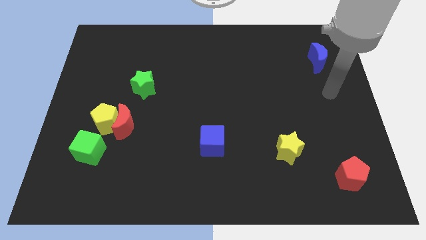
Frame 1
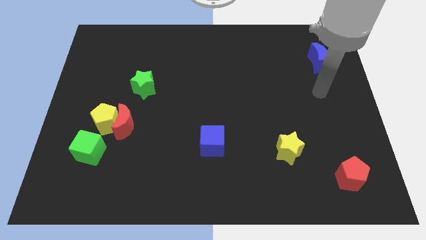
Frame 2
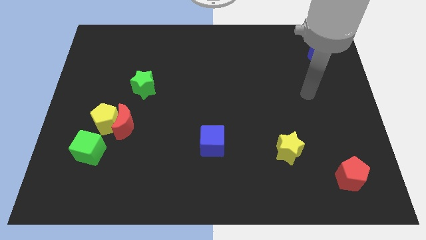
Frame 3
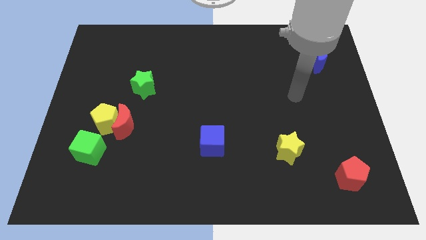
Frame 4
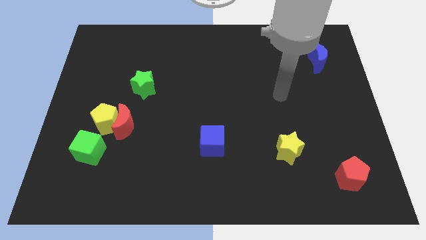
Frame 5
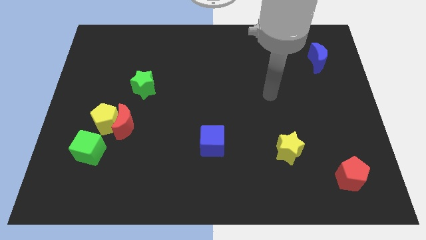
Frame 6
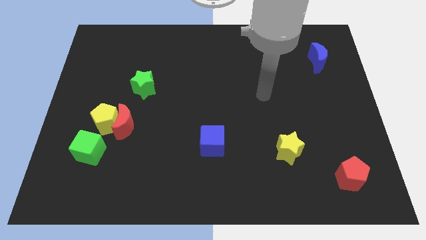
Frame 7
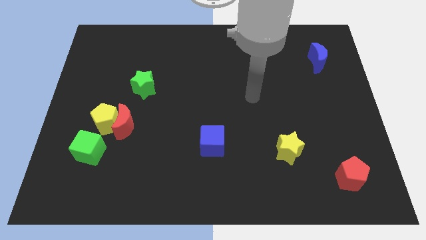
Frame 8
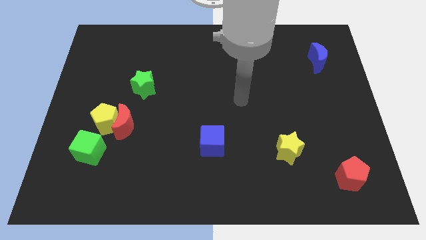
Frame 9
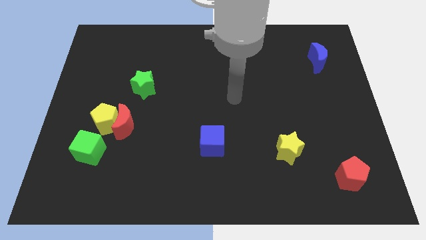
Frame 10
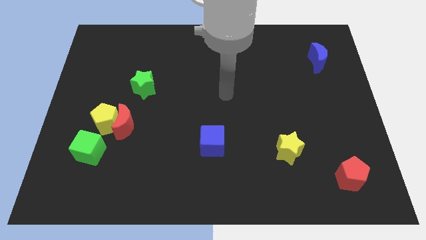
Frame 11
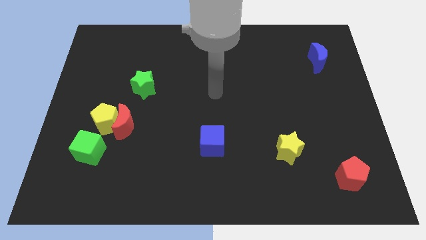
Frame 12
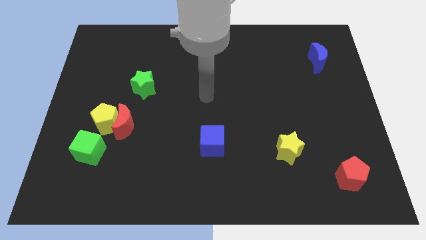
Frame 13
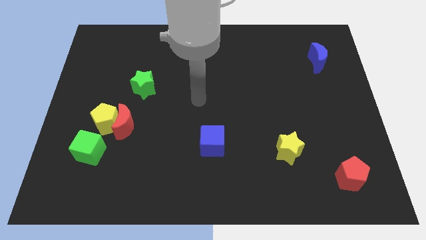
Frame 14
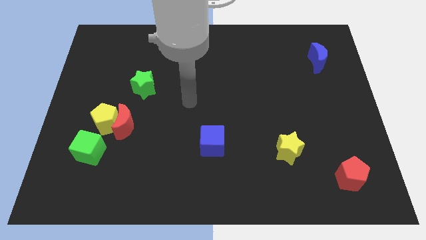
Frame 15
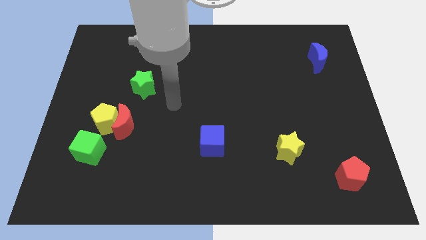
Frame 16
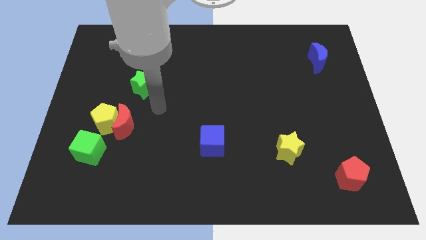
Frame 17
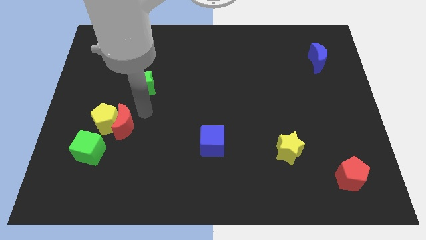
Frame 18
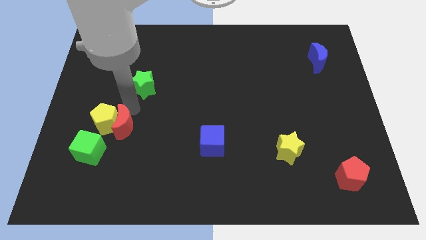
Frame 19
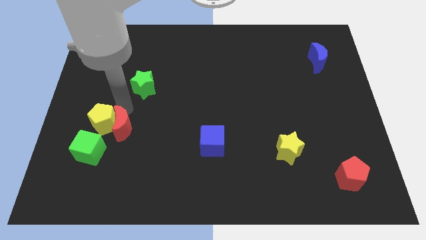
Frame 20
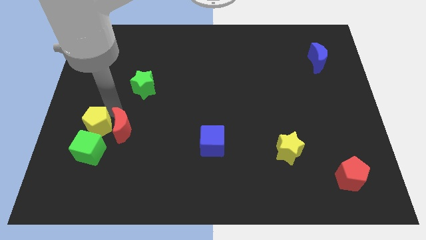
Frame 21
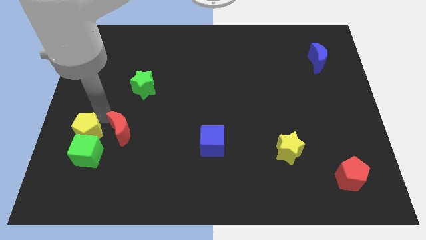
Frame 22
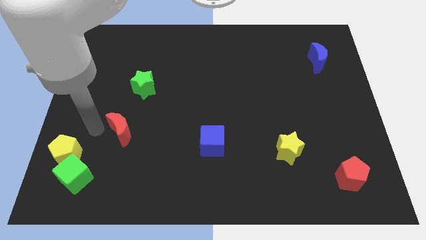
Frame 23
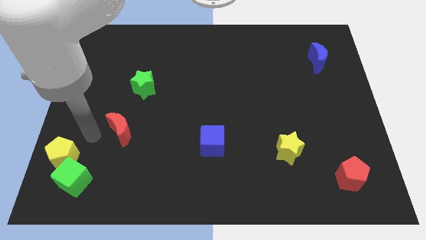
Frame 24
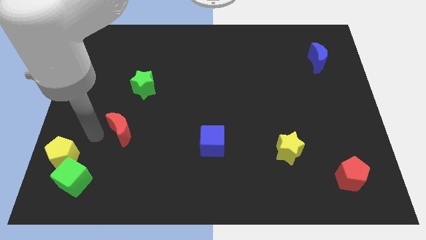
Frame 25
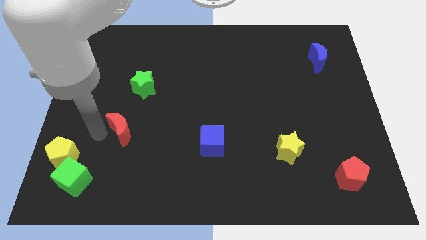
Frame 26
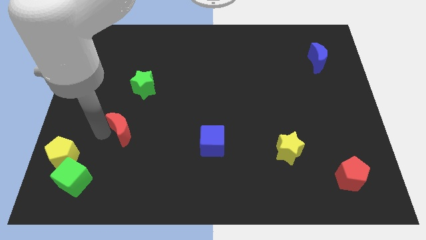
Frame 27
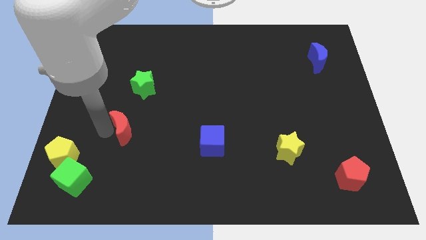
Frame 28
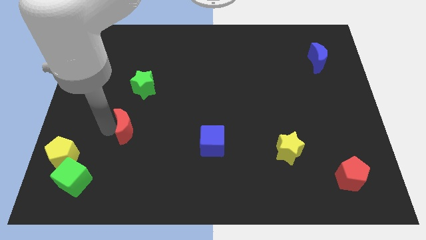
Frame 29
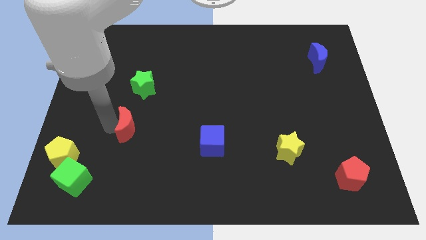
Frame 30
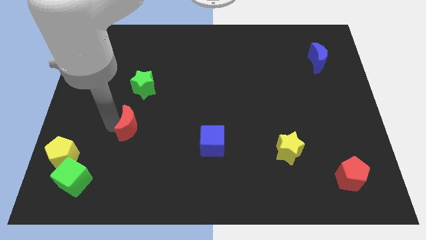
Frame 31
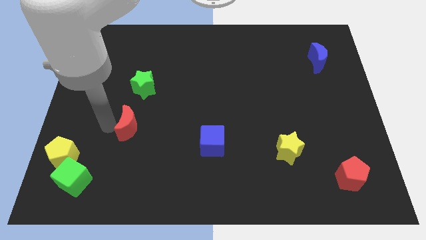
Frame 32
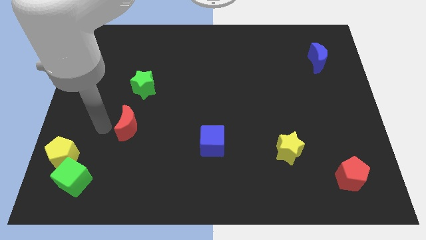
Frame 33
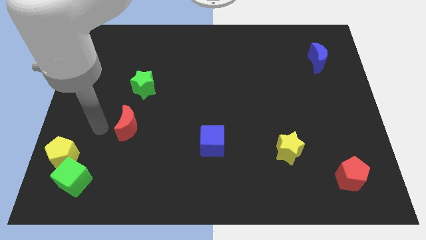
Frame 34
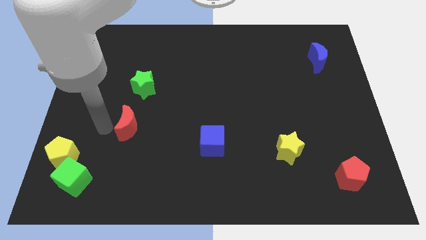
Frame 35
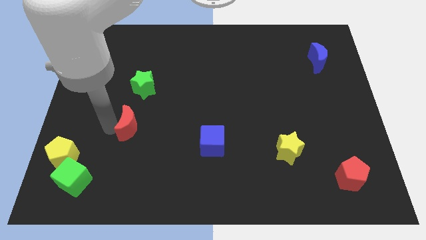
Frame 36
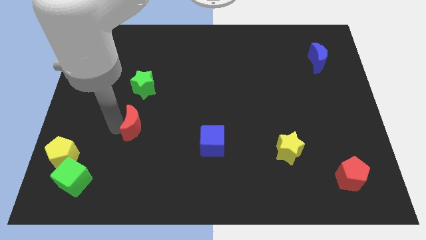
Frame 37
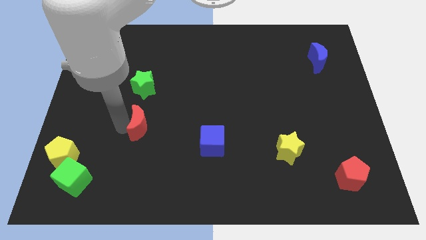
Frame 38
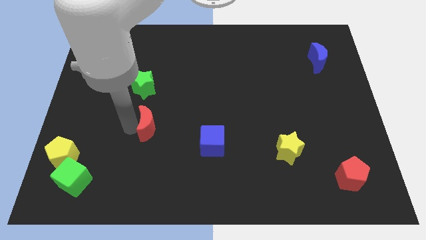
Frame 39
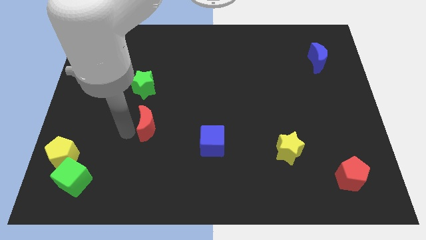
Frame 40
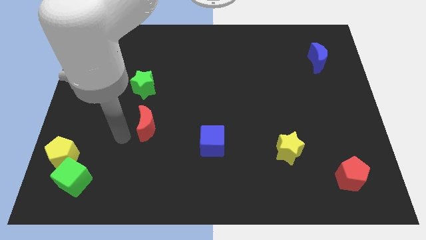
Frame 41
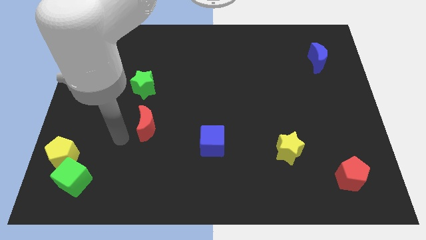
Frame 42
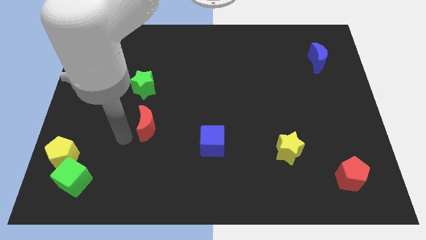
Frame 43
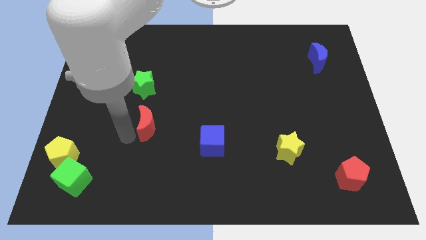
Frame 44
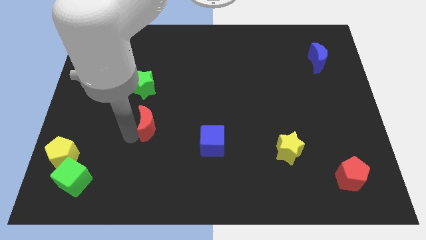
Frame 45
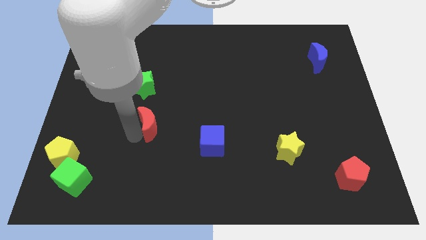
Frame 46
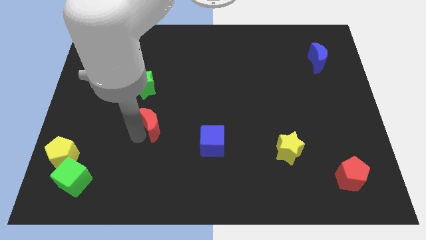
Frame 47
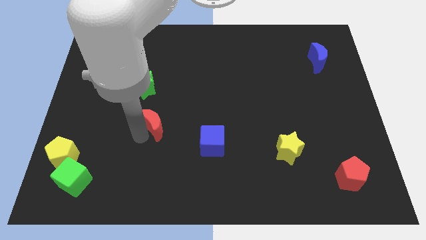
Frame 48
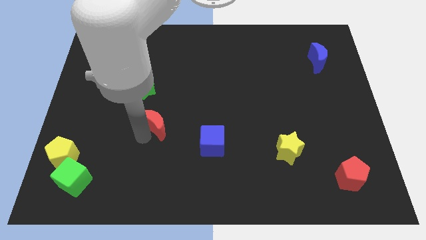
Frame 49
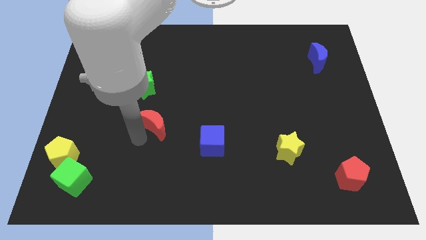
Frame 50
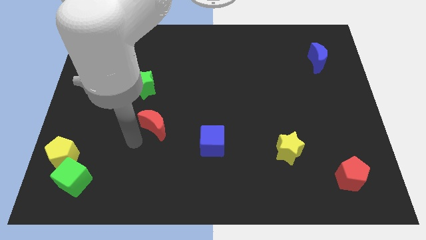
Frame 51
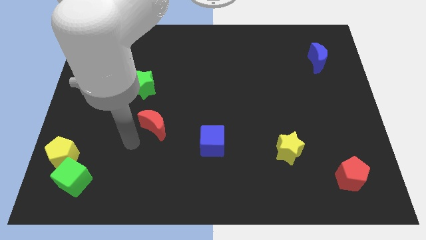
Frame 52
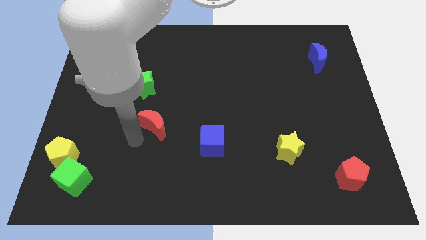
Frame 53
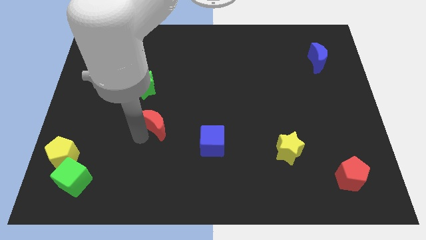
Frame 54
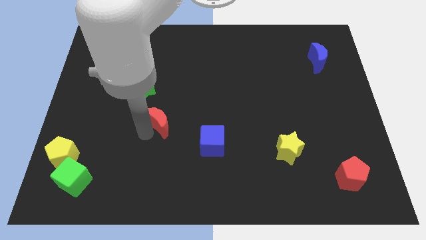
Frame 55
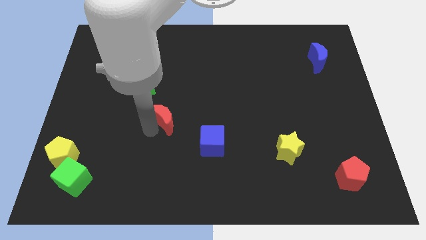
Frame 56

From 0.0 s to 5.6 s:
push the red moon to the center of the board
